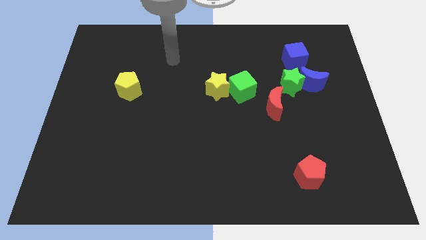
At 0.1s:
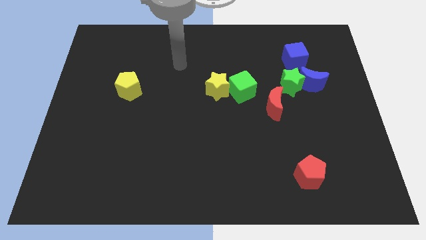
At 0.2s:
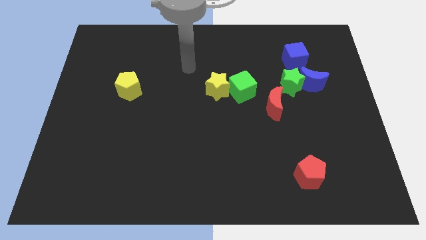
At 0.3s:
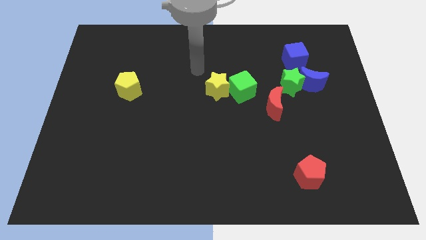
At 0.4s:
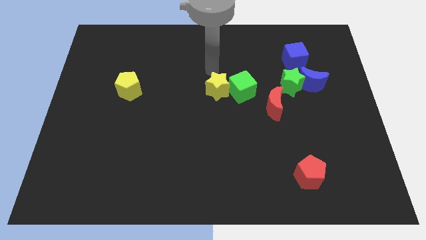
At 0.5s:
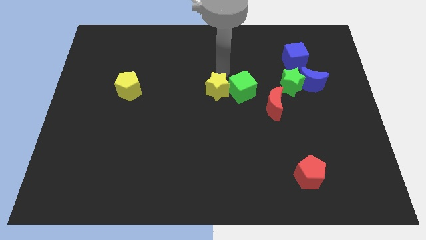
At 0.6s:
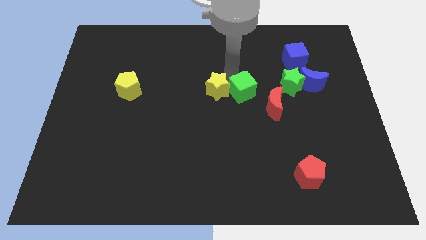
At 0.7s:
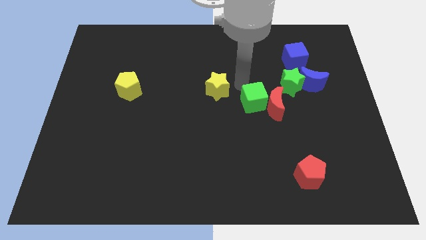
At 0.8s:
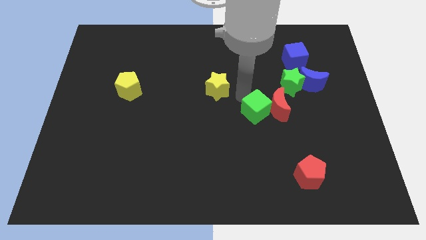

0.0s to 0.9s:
move the yellow star away from the green cube

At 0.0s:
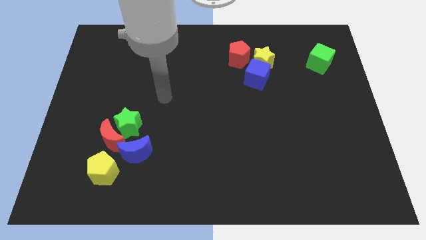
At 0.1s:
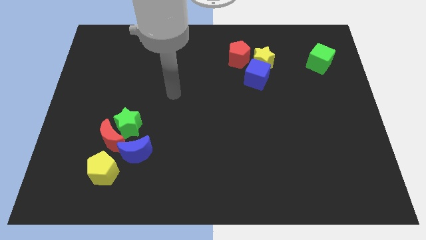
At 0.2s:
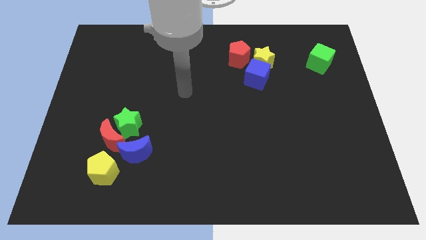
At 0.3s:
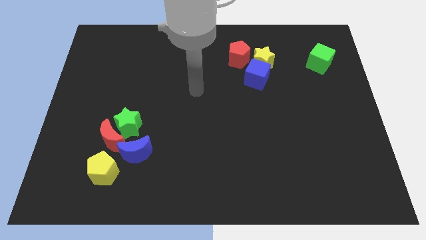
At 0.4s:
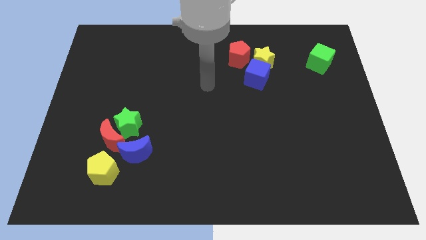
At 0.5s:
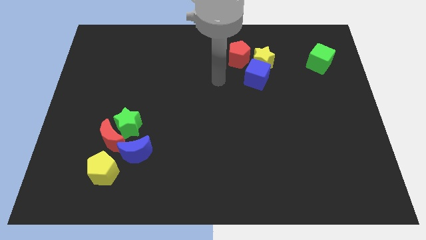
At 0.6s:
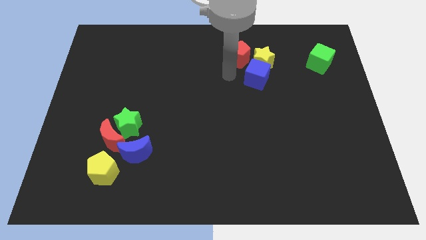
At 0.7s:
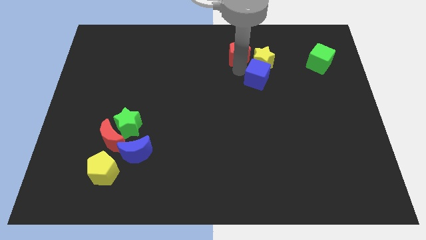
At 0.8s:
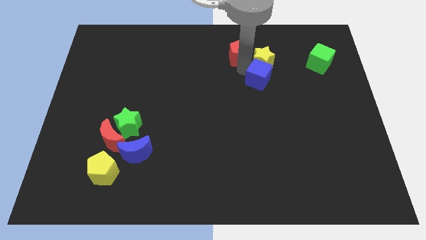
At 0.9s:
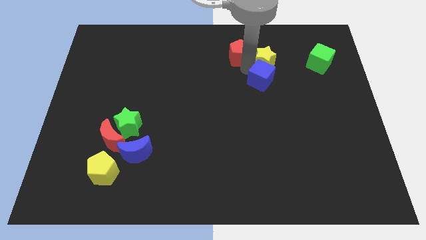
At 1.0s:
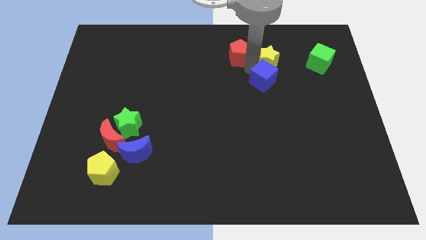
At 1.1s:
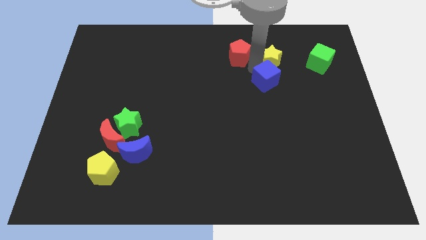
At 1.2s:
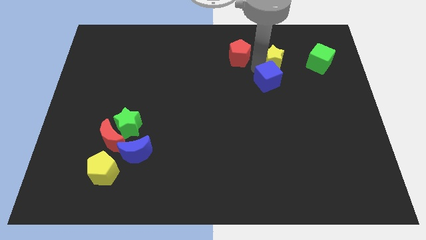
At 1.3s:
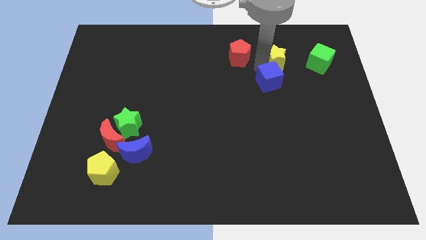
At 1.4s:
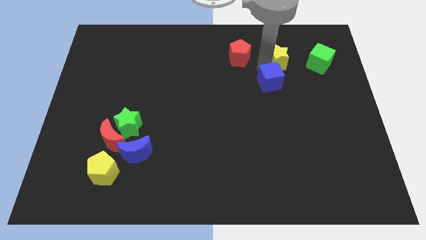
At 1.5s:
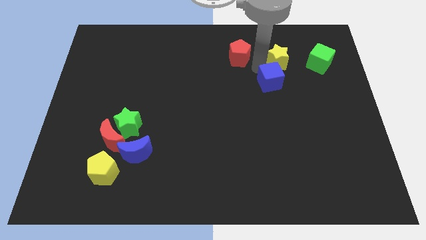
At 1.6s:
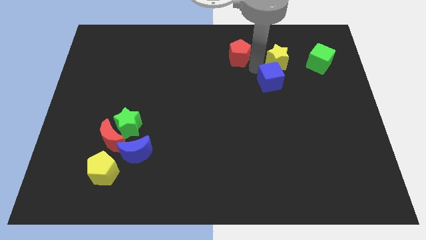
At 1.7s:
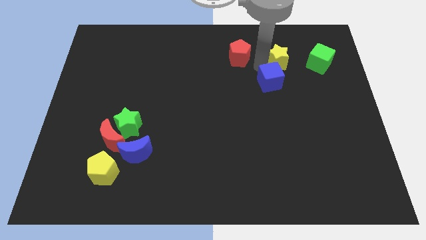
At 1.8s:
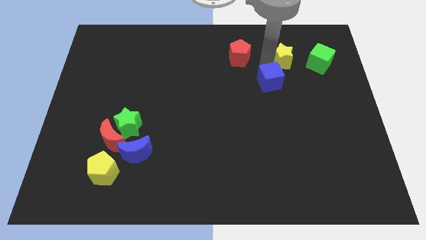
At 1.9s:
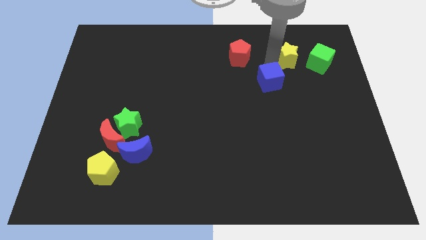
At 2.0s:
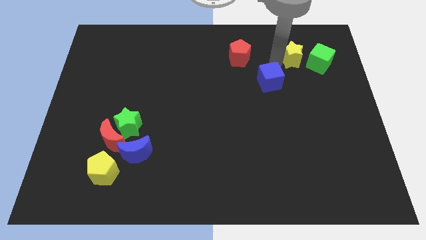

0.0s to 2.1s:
pull the yellow star apart from the blue cube and red pentagon

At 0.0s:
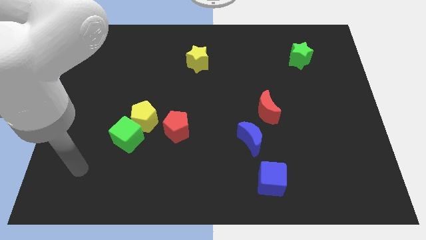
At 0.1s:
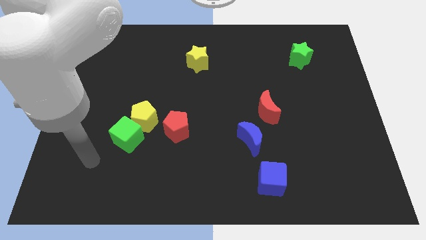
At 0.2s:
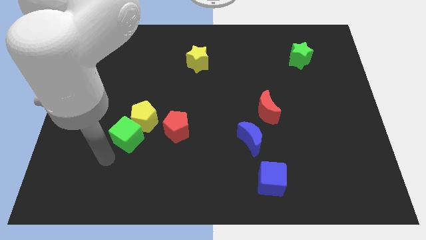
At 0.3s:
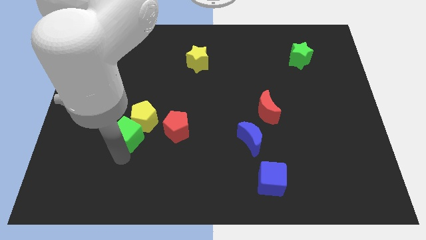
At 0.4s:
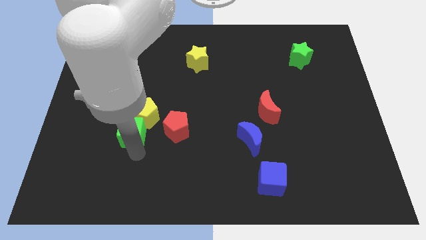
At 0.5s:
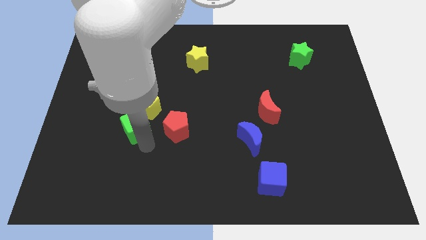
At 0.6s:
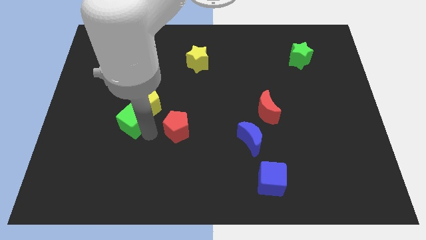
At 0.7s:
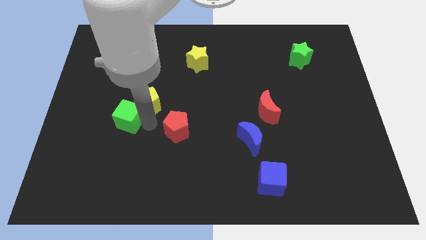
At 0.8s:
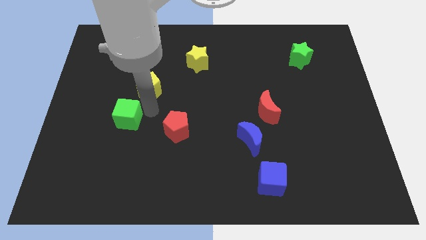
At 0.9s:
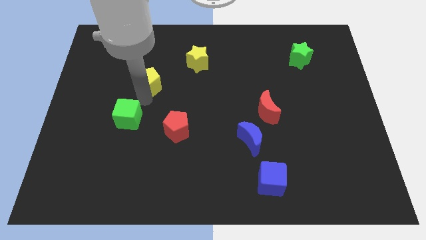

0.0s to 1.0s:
separate the green cube from the yellow pentagon

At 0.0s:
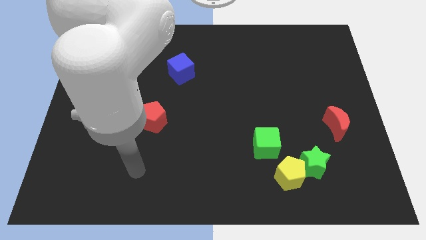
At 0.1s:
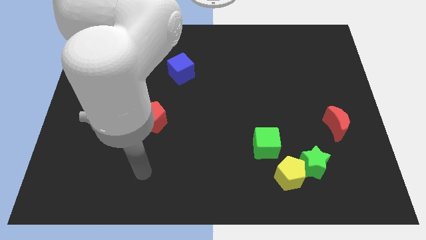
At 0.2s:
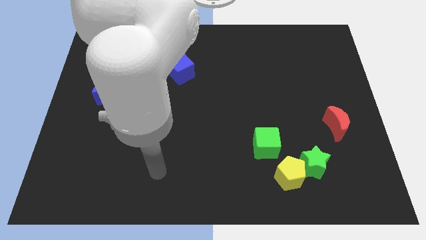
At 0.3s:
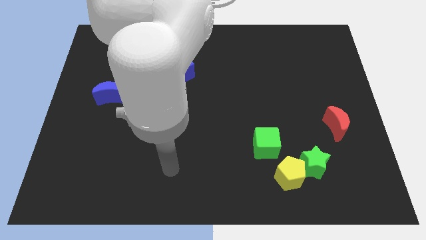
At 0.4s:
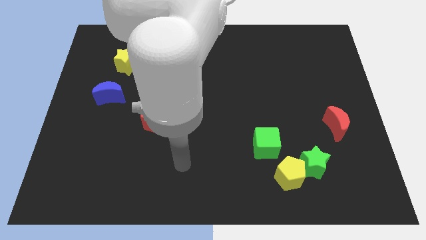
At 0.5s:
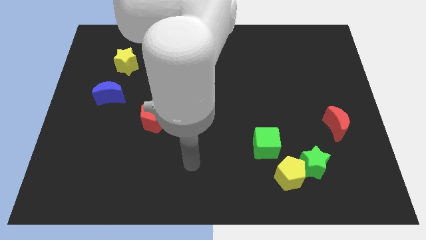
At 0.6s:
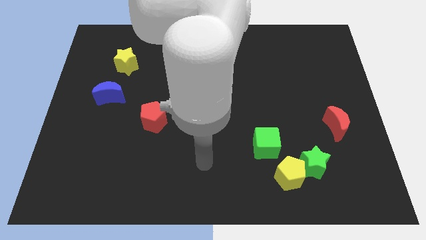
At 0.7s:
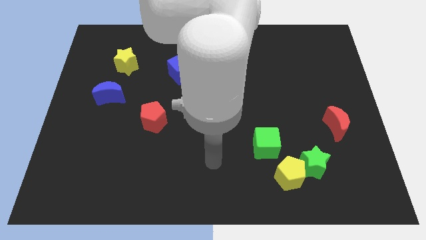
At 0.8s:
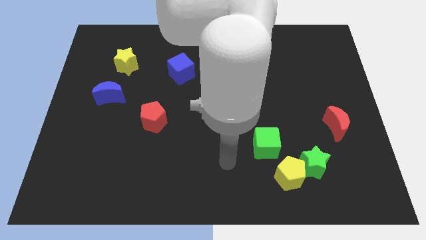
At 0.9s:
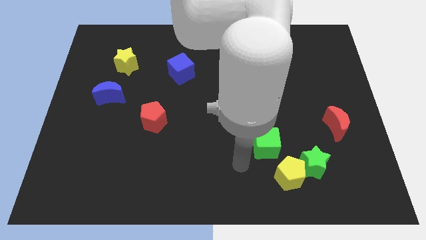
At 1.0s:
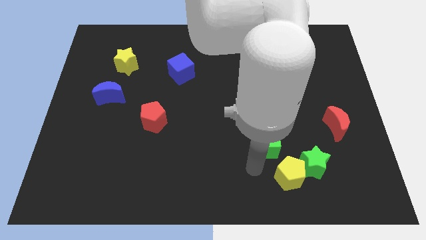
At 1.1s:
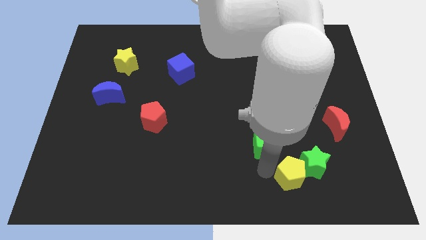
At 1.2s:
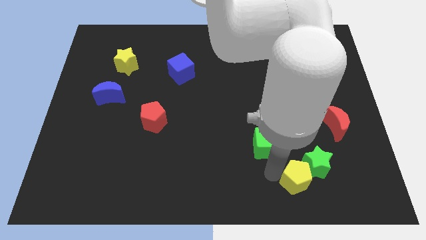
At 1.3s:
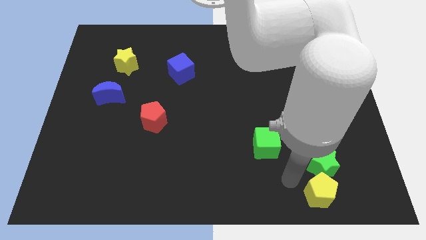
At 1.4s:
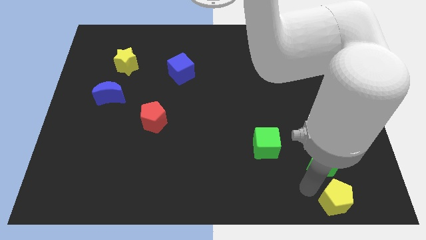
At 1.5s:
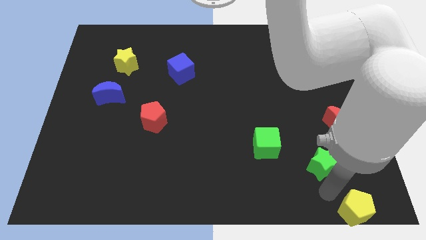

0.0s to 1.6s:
move the green star away from the yellow pentagon

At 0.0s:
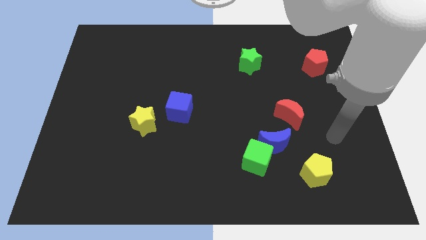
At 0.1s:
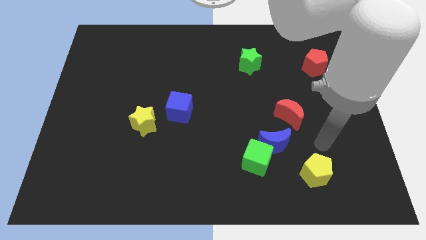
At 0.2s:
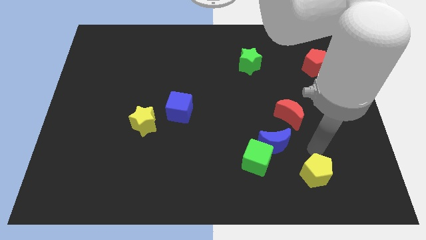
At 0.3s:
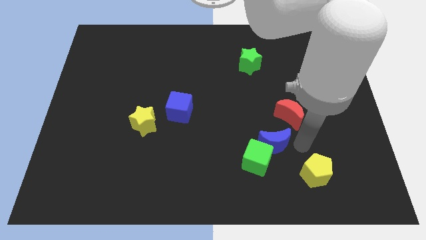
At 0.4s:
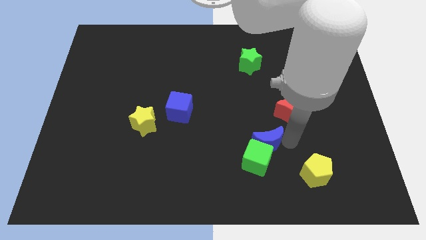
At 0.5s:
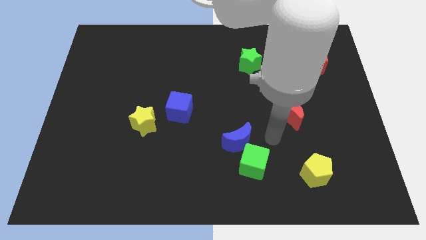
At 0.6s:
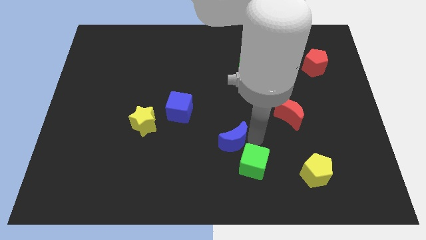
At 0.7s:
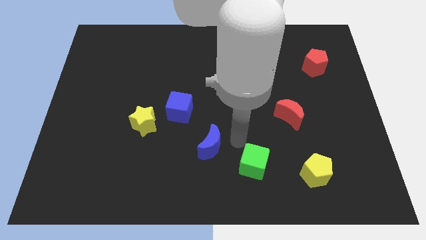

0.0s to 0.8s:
pull the green cube apart from the blue moon

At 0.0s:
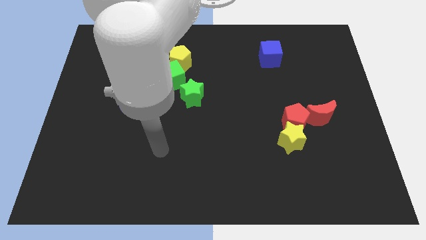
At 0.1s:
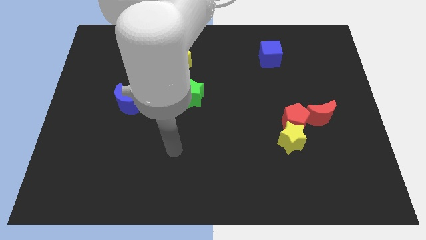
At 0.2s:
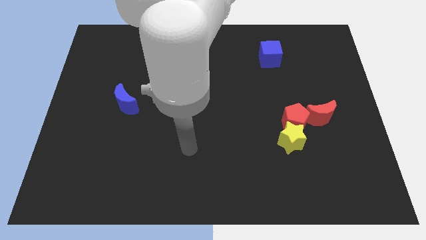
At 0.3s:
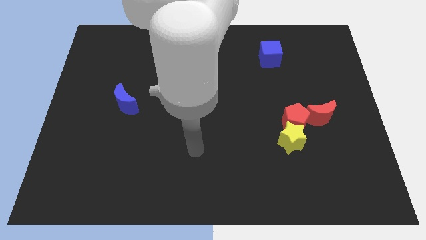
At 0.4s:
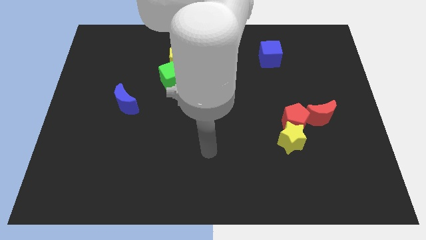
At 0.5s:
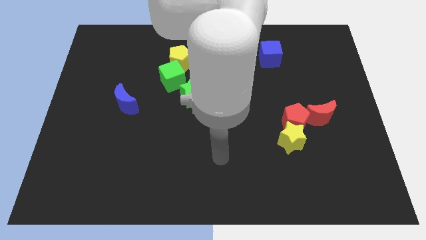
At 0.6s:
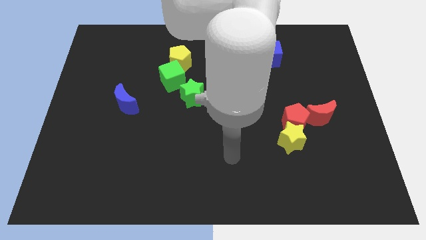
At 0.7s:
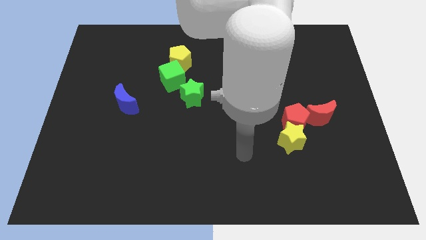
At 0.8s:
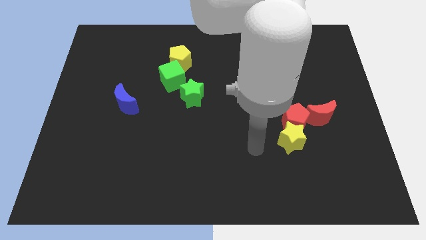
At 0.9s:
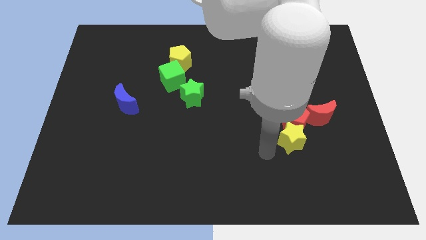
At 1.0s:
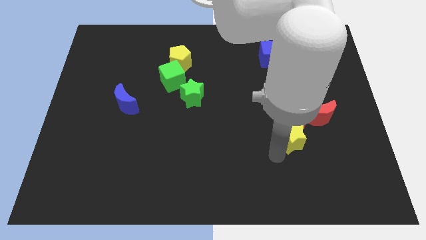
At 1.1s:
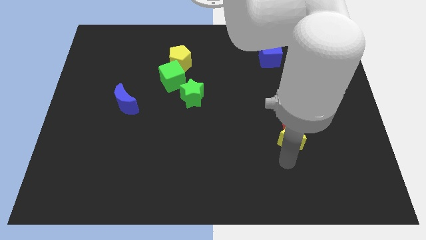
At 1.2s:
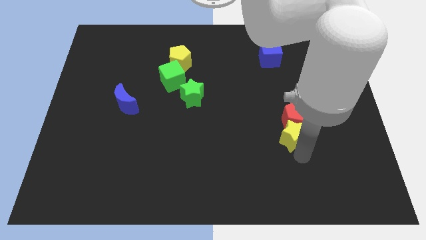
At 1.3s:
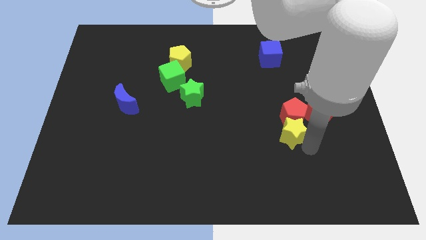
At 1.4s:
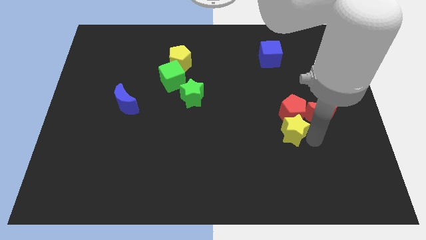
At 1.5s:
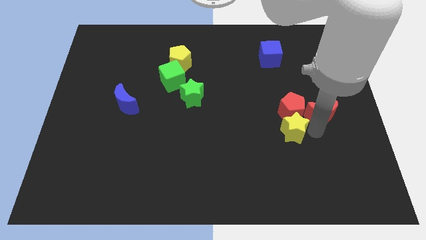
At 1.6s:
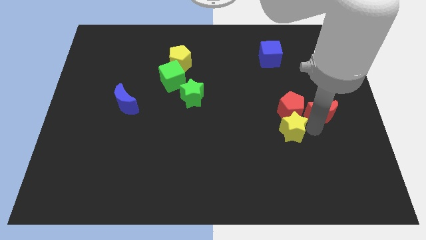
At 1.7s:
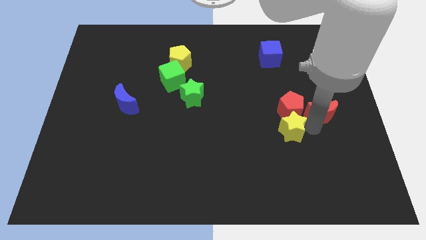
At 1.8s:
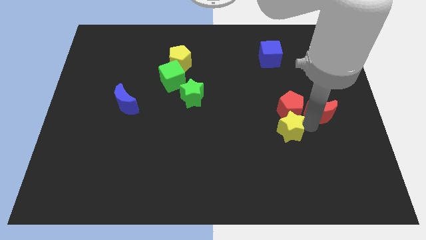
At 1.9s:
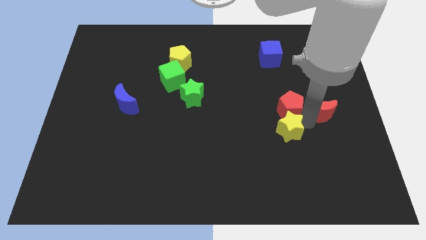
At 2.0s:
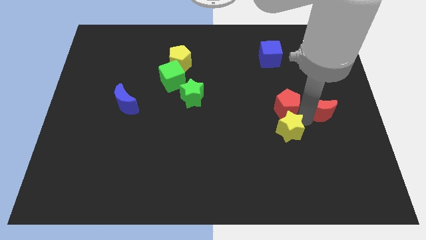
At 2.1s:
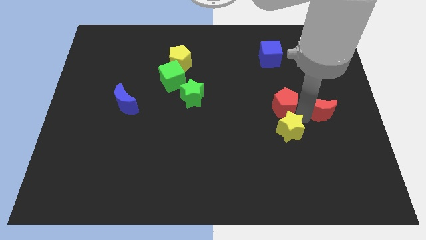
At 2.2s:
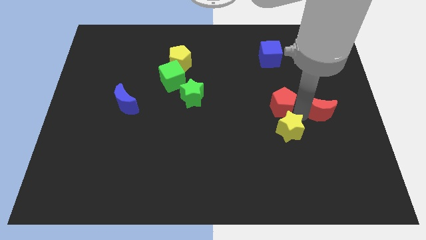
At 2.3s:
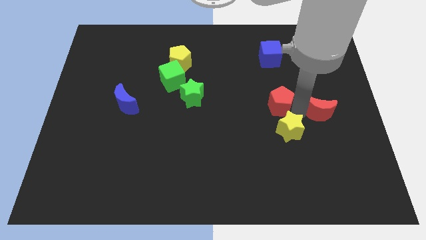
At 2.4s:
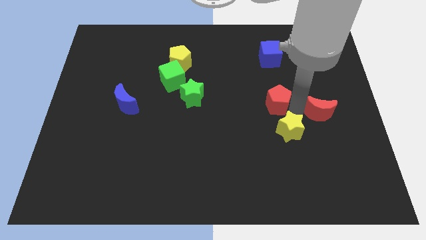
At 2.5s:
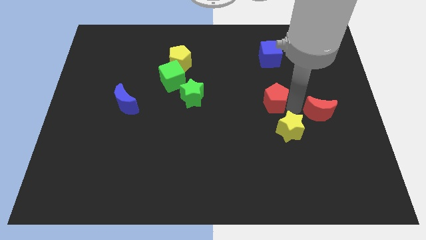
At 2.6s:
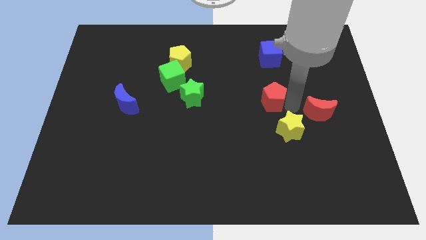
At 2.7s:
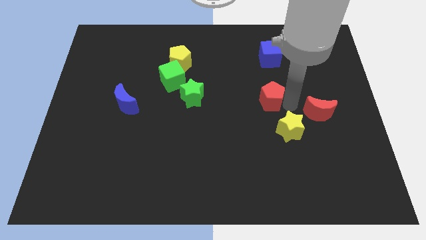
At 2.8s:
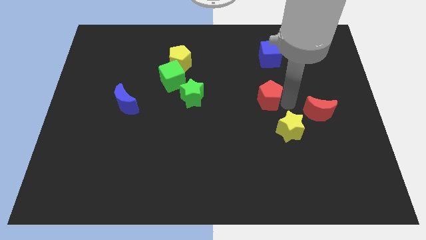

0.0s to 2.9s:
separate the red pentagon from the yellow star and red moon

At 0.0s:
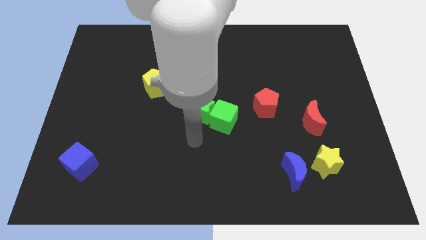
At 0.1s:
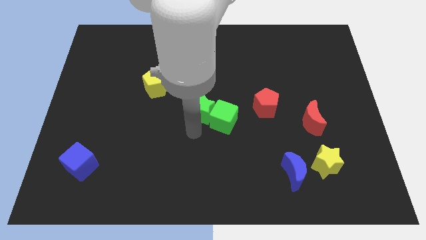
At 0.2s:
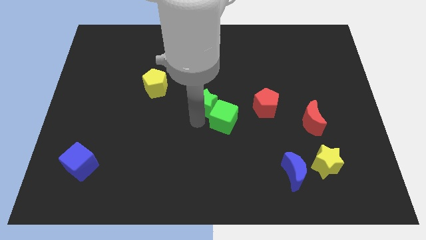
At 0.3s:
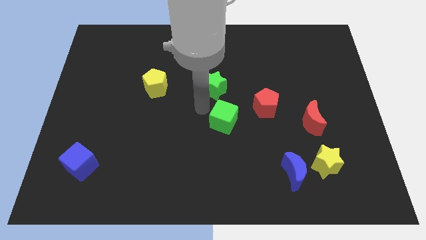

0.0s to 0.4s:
separate the green cube from the green star
